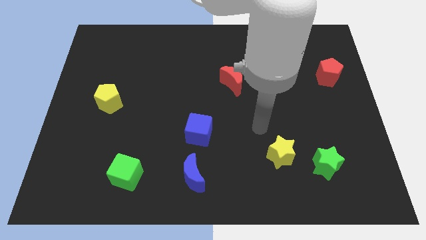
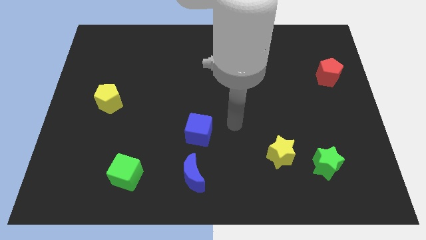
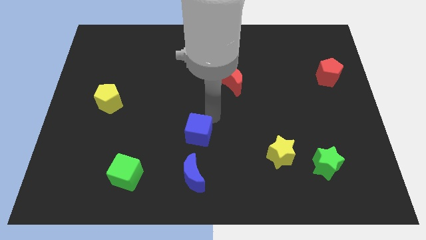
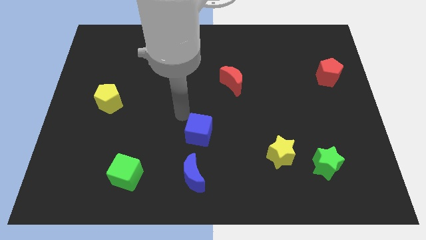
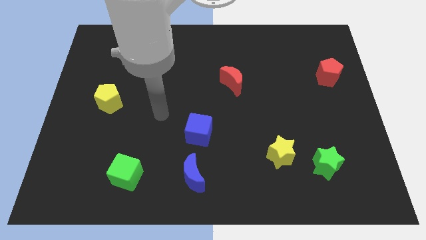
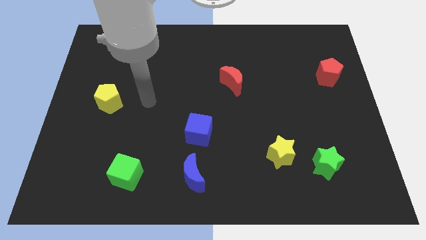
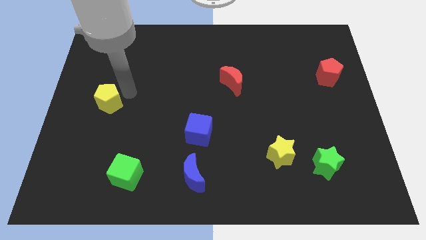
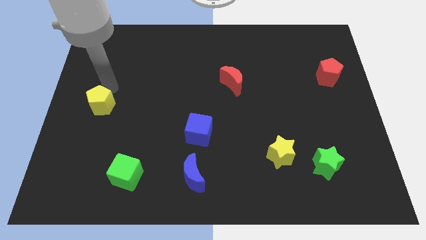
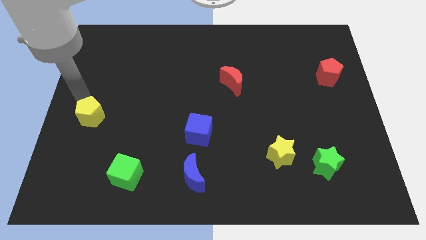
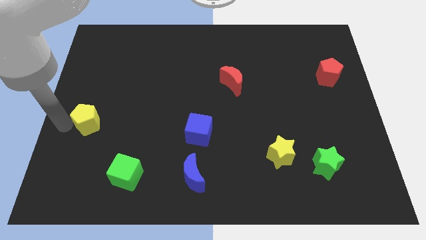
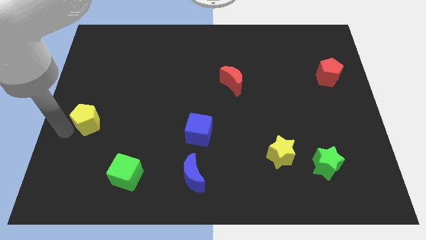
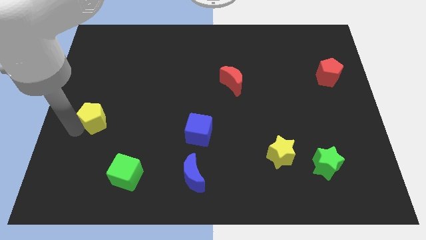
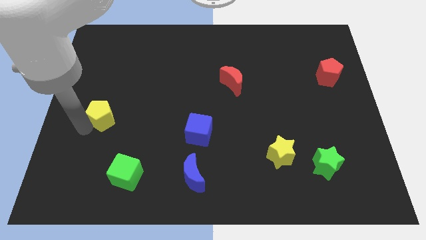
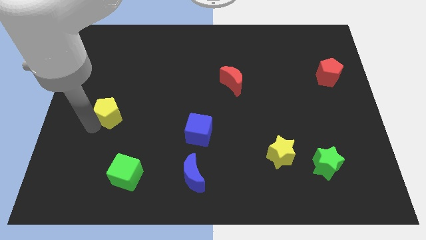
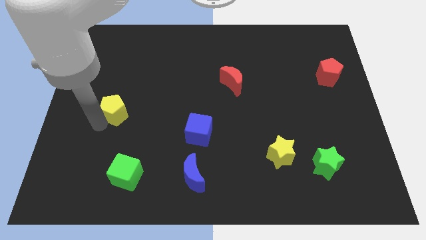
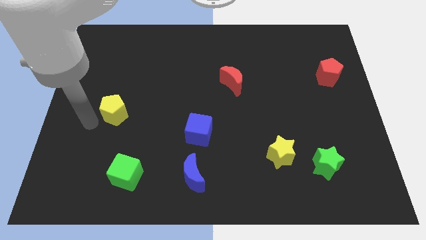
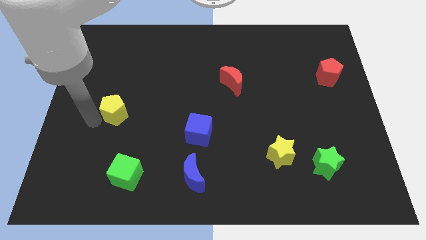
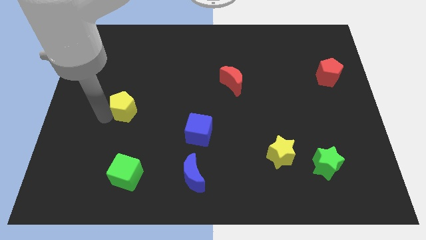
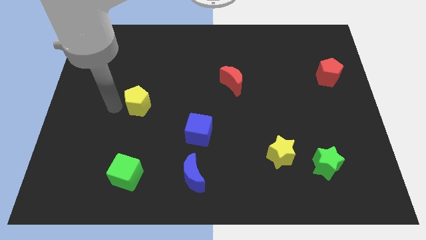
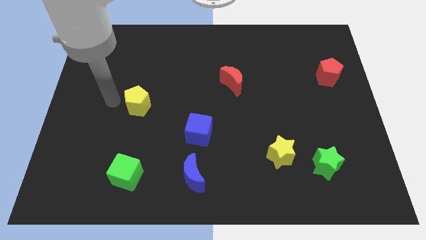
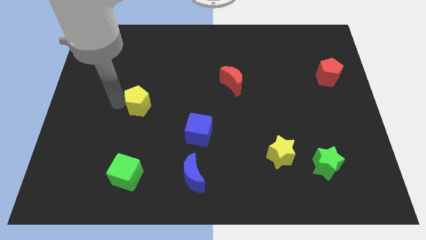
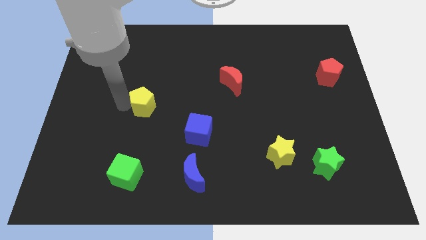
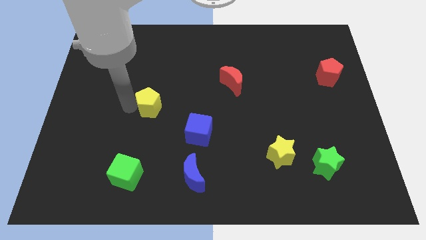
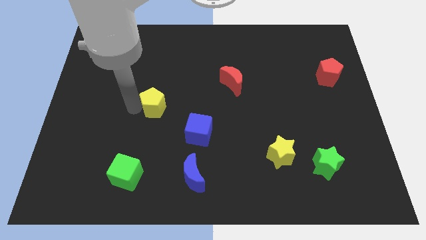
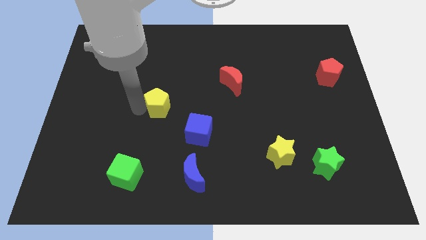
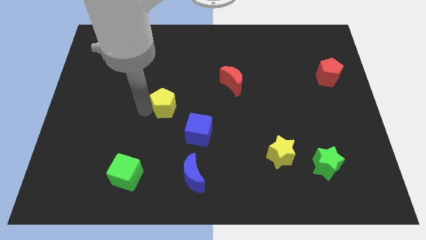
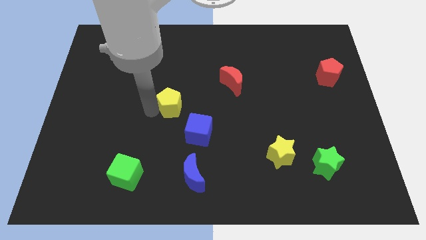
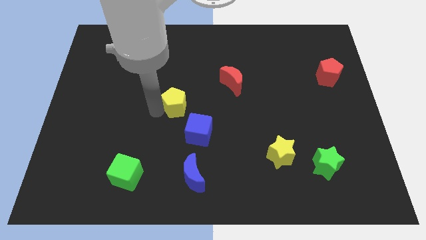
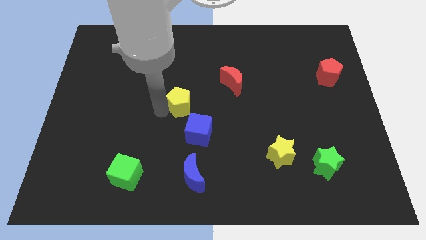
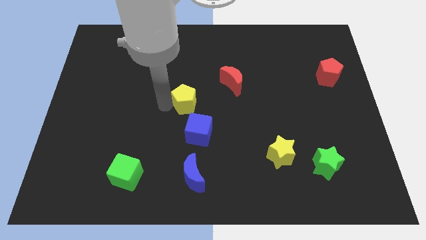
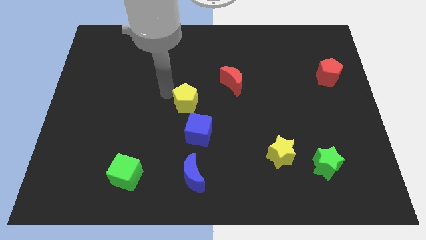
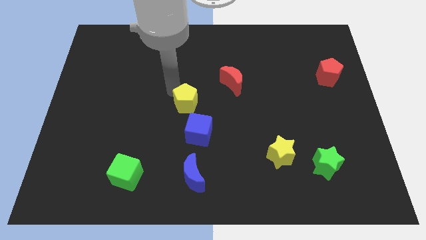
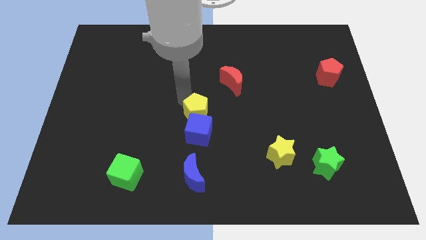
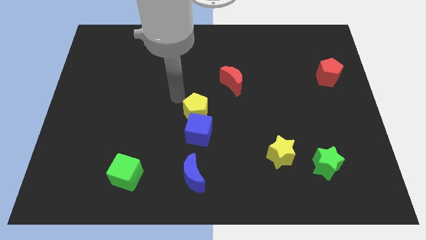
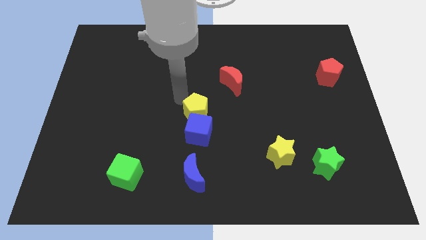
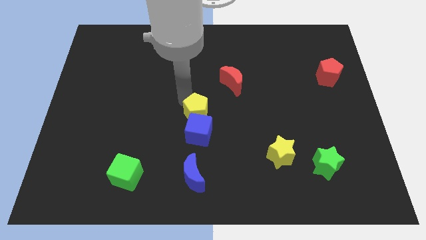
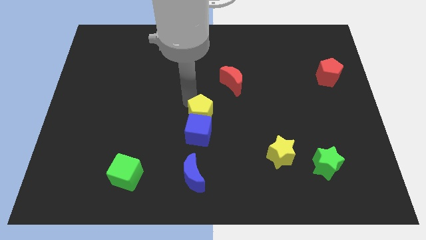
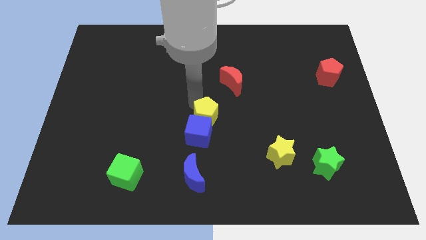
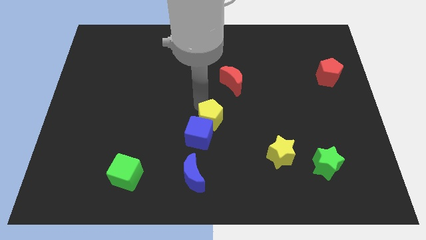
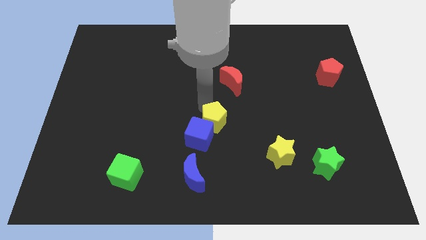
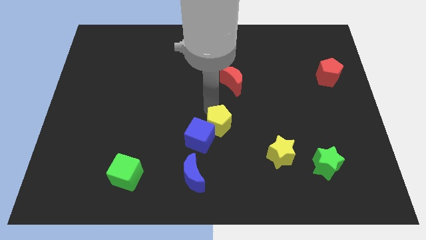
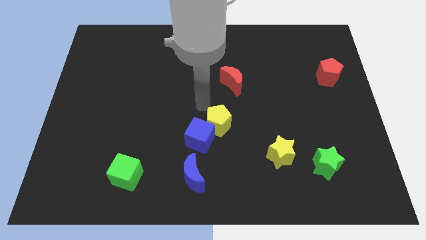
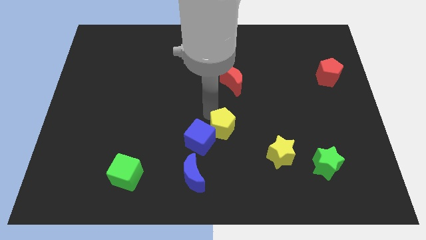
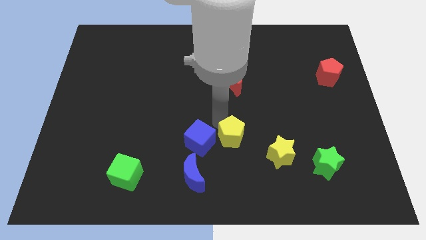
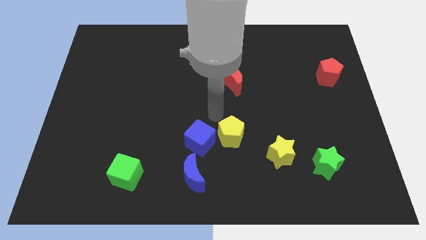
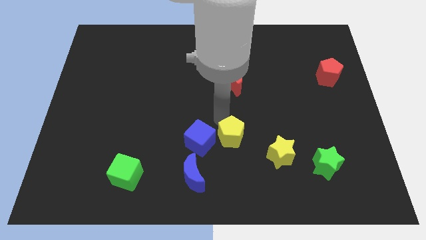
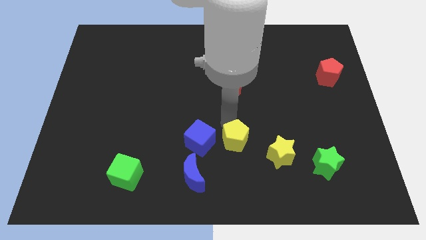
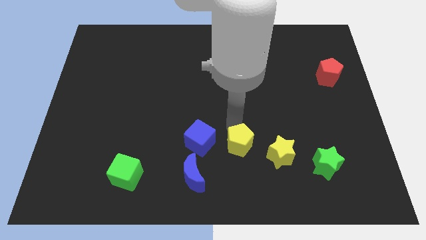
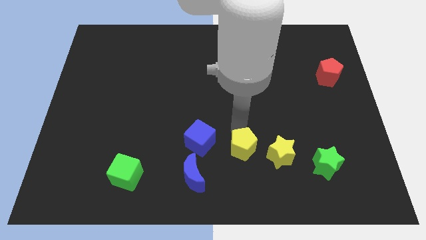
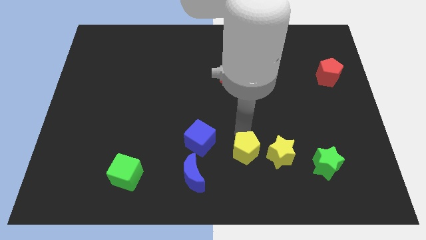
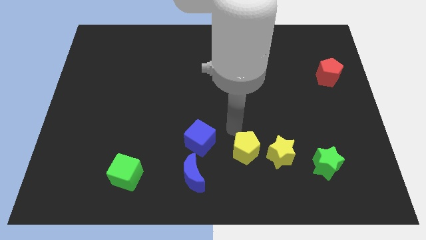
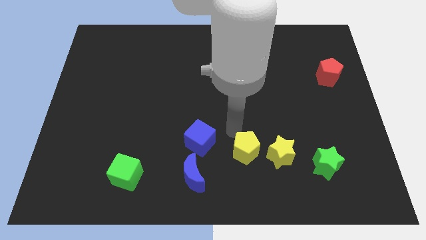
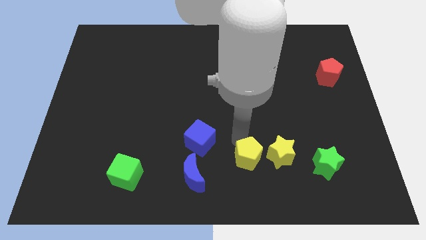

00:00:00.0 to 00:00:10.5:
move the yellow pentagon to the bottom left of the yellow star

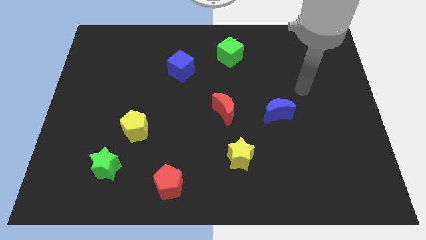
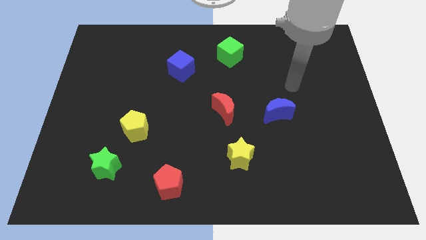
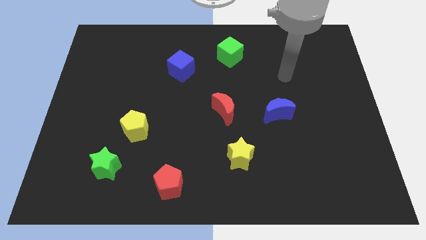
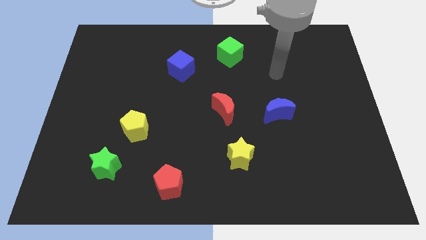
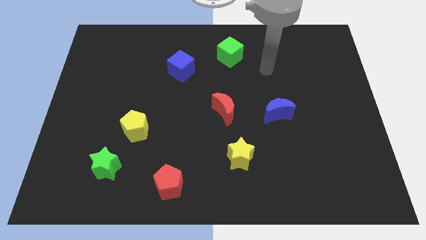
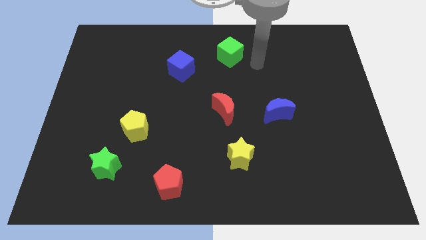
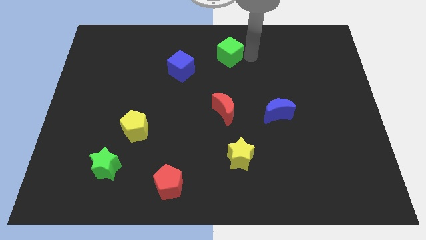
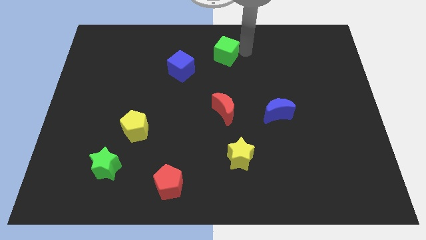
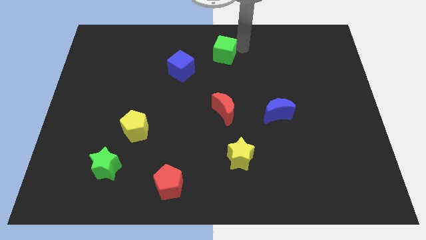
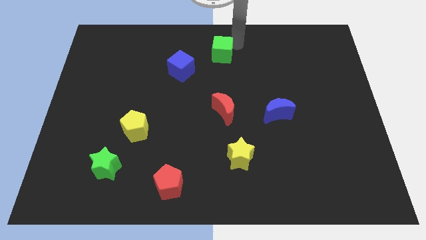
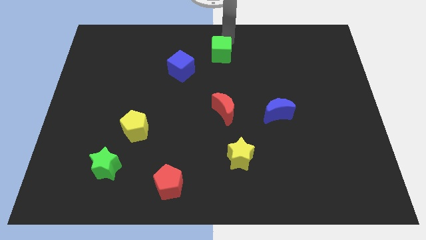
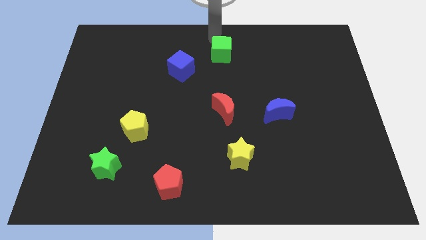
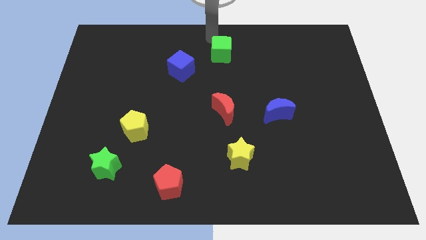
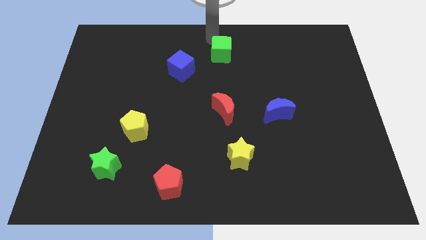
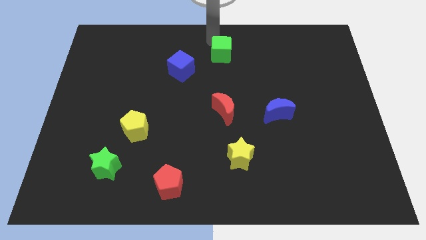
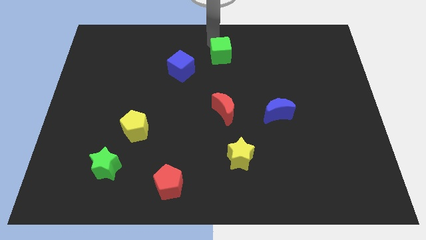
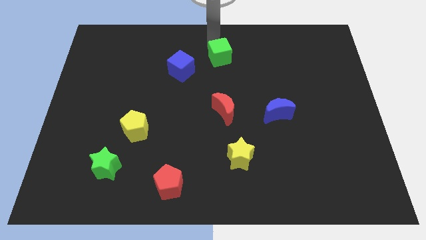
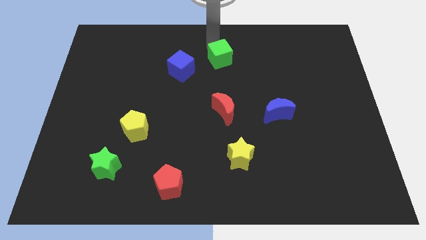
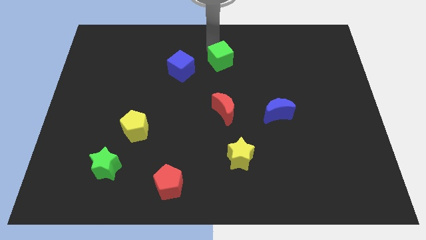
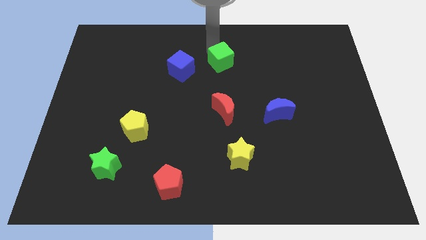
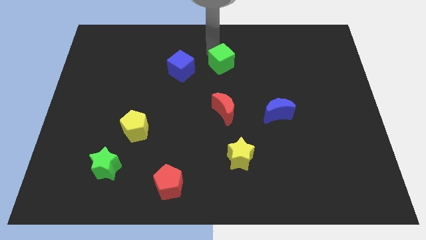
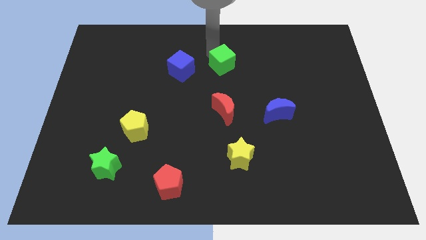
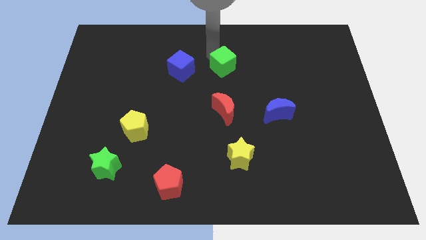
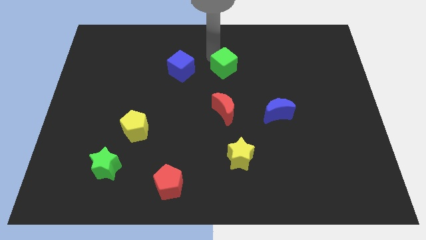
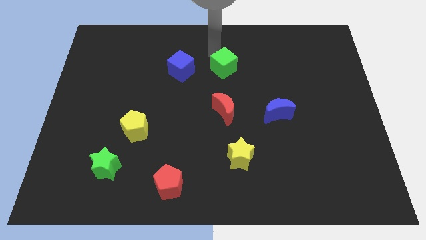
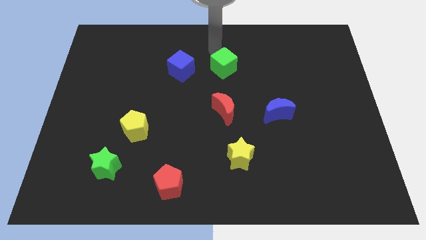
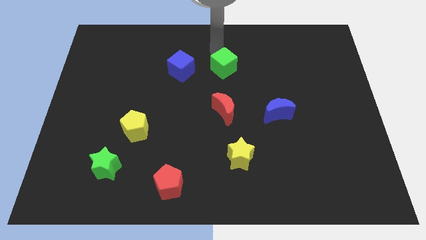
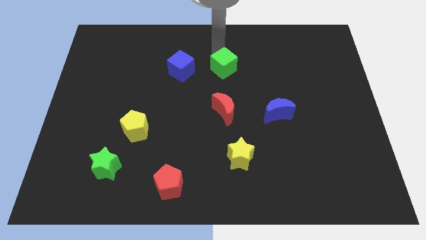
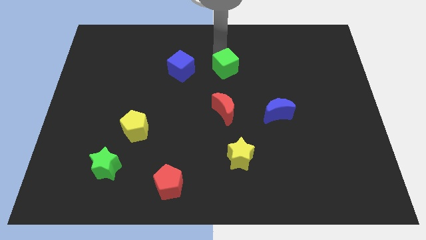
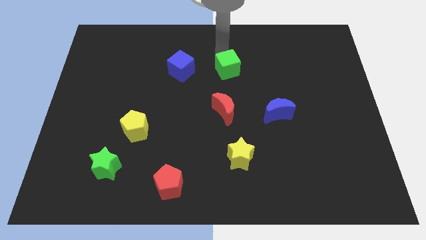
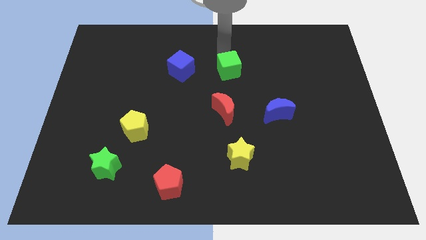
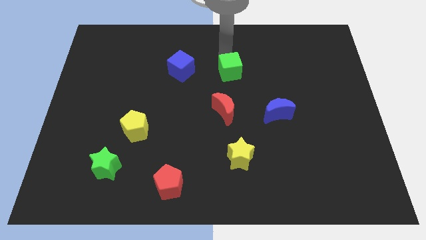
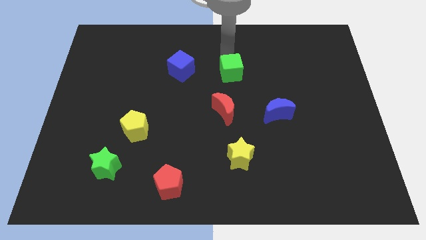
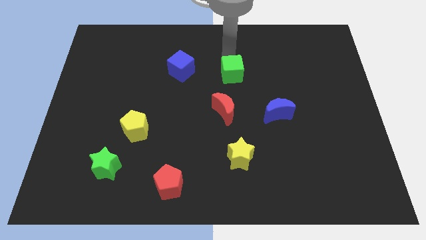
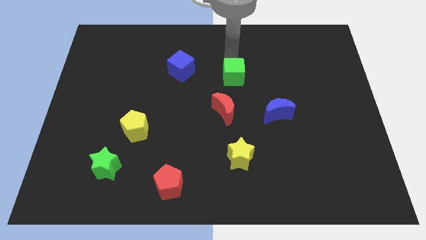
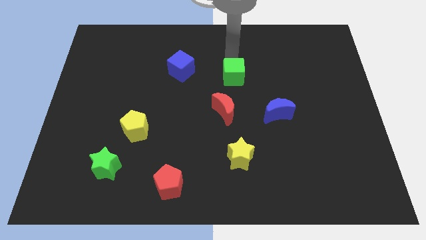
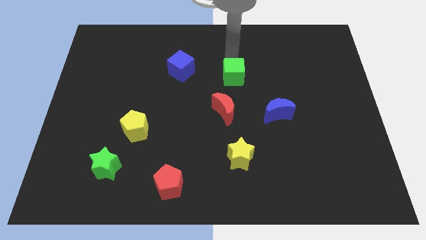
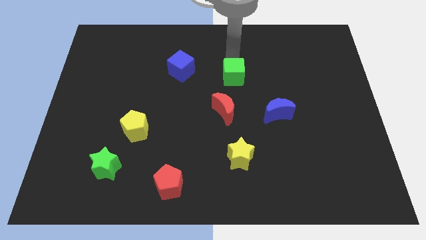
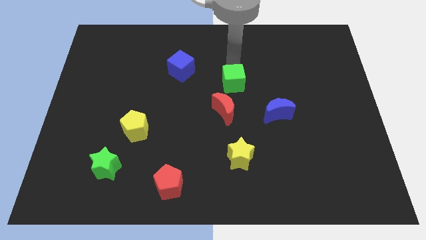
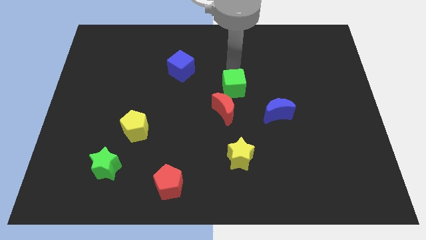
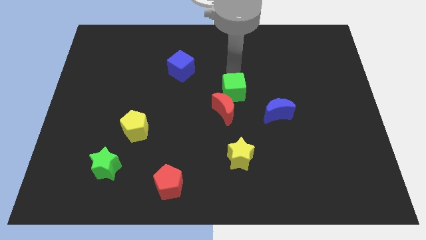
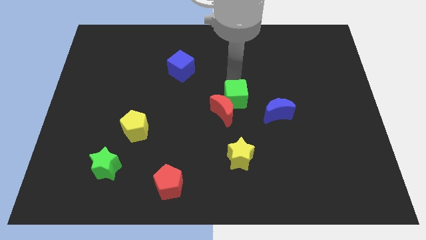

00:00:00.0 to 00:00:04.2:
push the green cube above the yellow star
